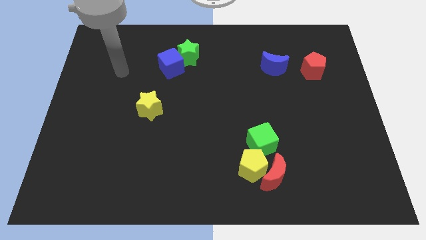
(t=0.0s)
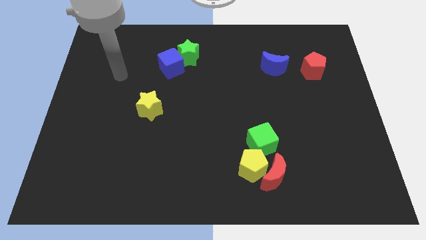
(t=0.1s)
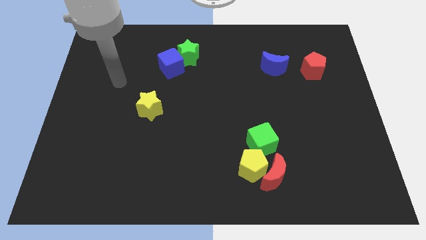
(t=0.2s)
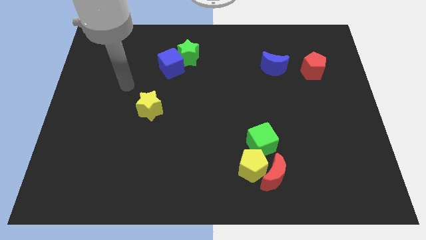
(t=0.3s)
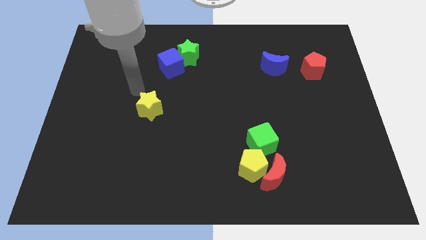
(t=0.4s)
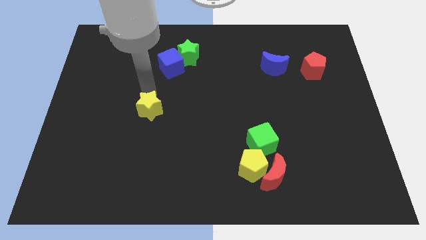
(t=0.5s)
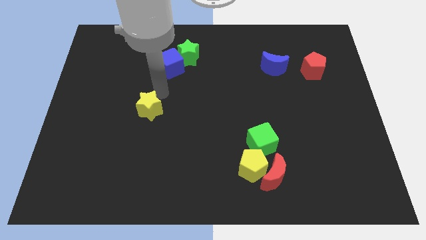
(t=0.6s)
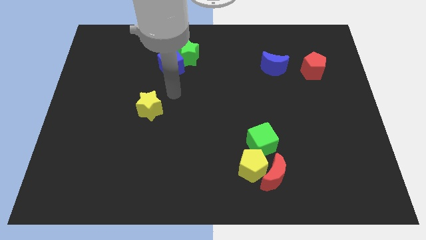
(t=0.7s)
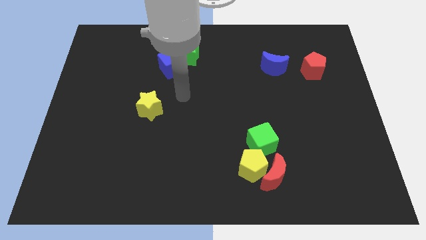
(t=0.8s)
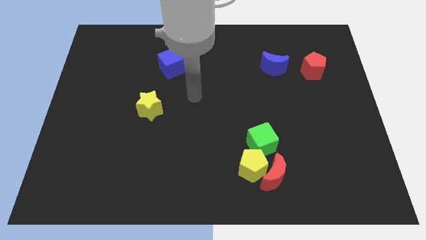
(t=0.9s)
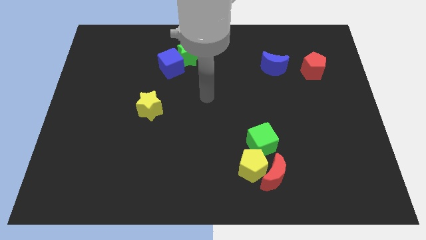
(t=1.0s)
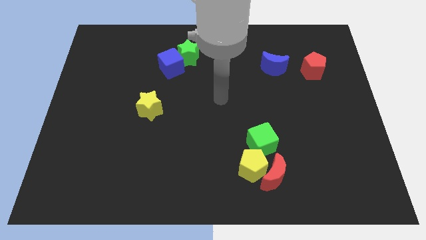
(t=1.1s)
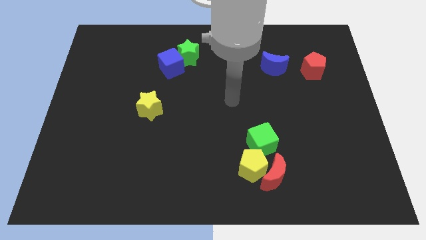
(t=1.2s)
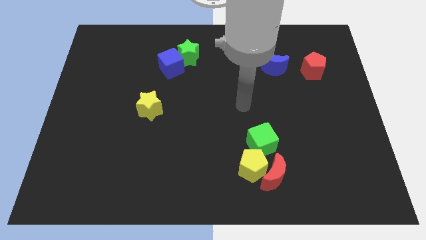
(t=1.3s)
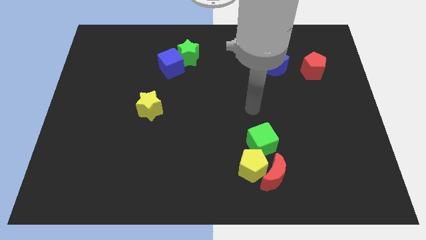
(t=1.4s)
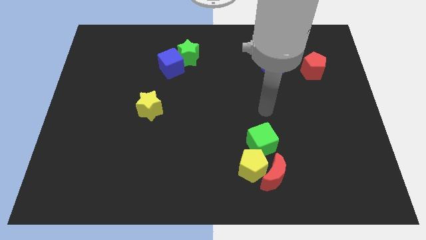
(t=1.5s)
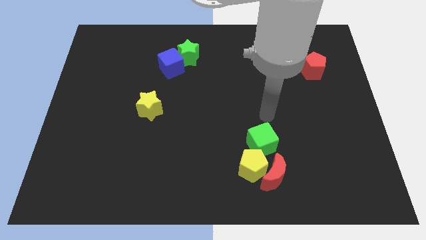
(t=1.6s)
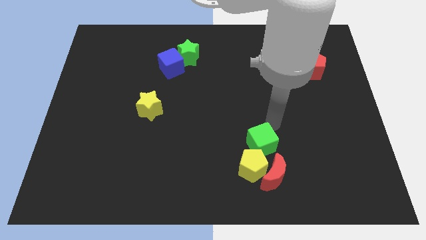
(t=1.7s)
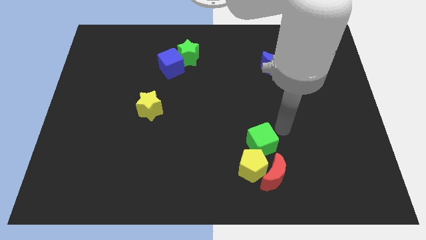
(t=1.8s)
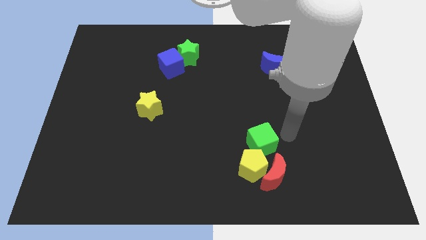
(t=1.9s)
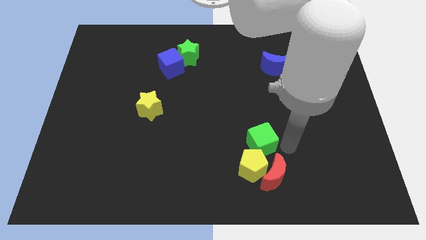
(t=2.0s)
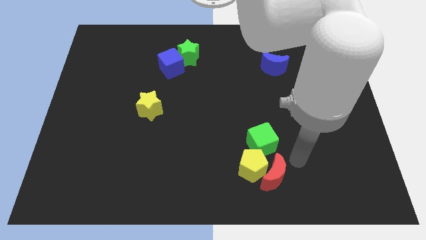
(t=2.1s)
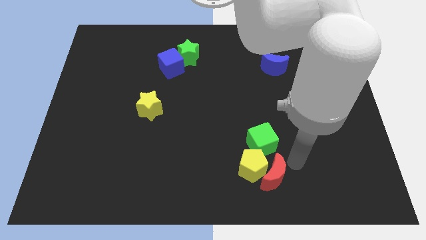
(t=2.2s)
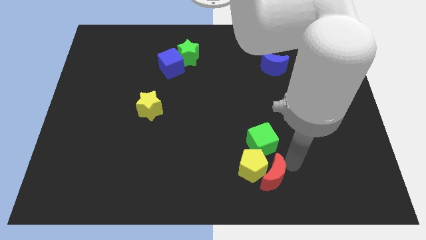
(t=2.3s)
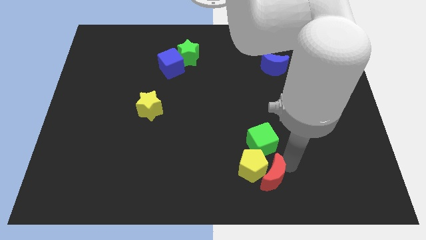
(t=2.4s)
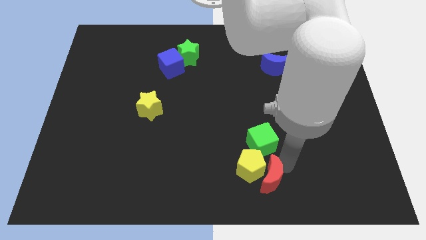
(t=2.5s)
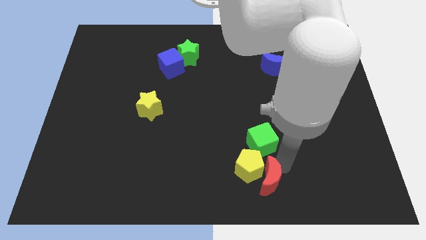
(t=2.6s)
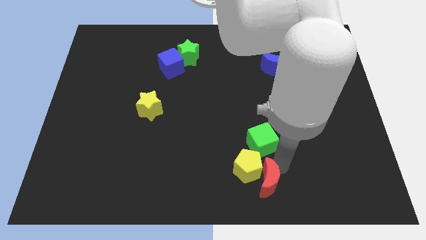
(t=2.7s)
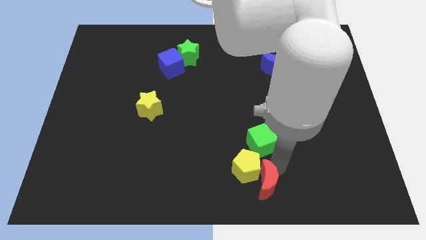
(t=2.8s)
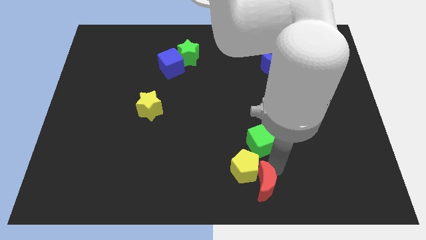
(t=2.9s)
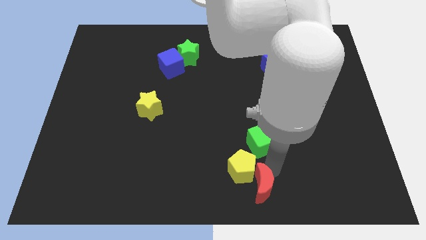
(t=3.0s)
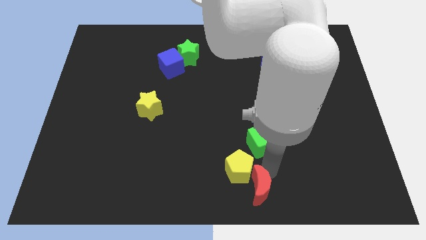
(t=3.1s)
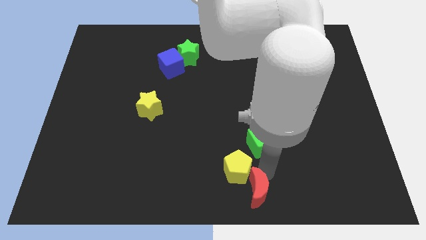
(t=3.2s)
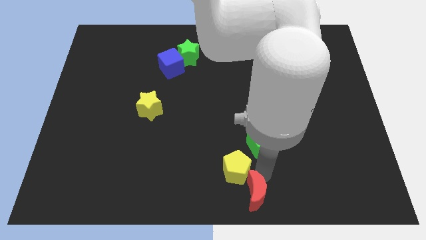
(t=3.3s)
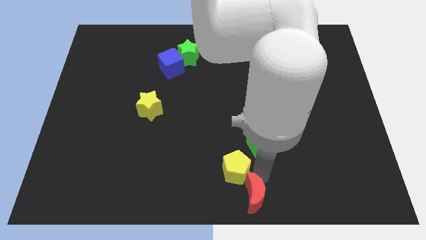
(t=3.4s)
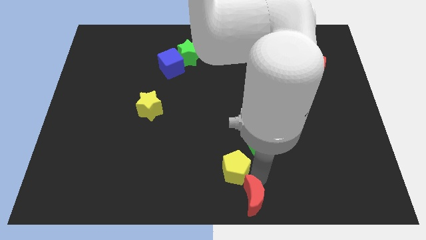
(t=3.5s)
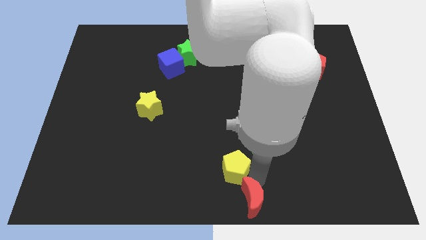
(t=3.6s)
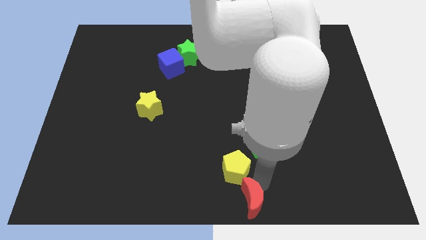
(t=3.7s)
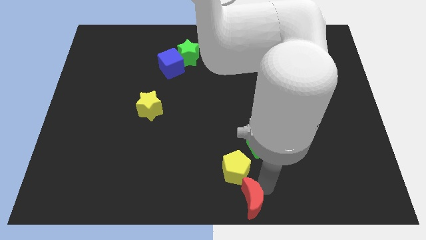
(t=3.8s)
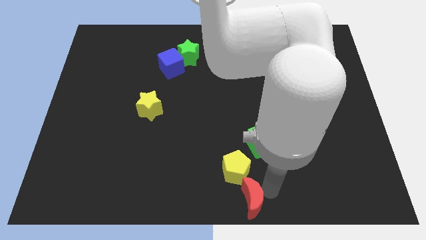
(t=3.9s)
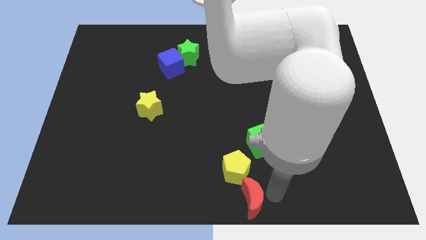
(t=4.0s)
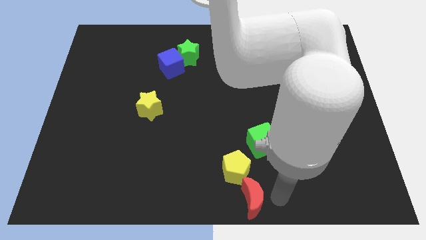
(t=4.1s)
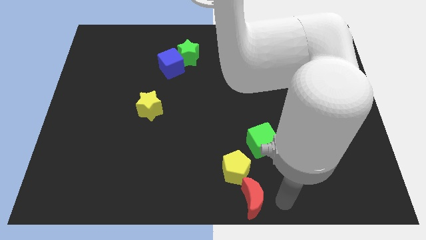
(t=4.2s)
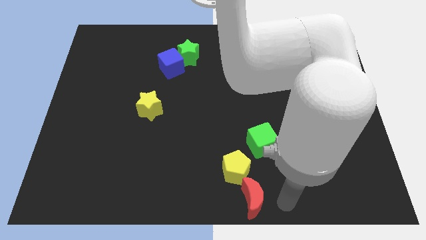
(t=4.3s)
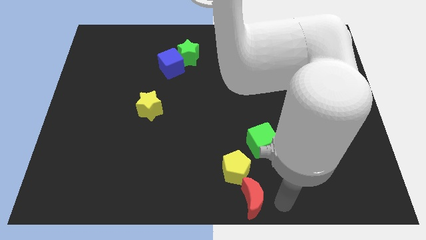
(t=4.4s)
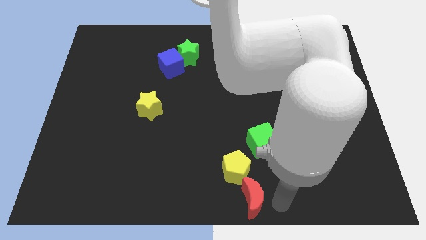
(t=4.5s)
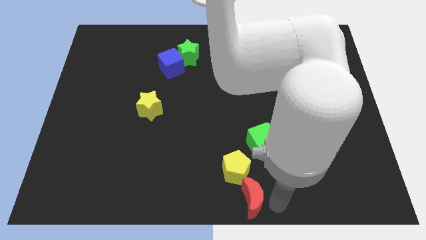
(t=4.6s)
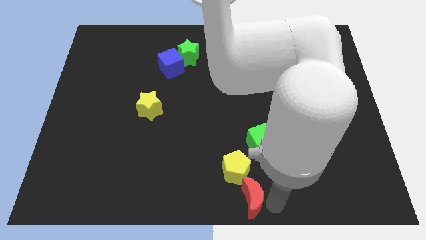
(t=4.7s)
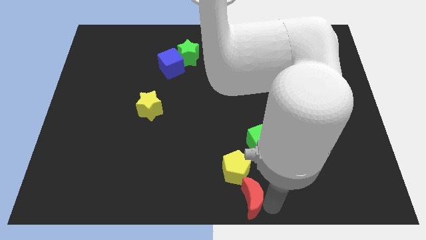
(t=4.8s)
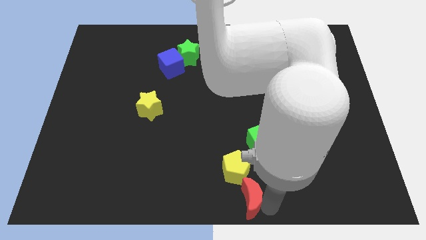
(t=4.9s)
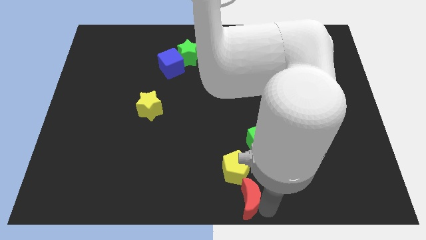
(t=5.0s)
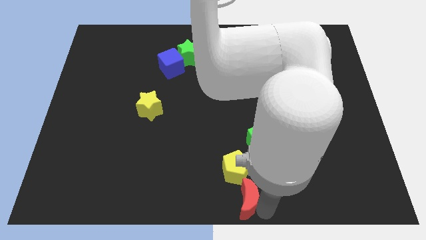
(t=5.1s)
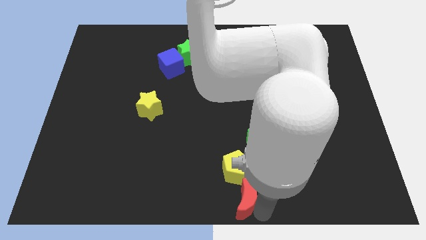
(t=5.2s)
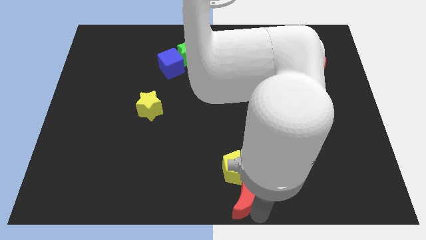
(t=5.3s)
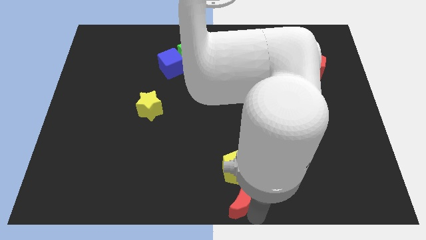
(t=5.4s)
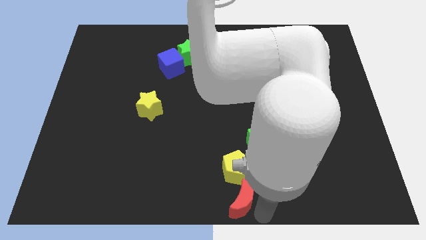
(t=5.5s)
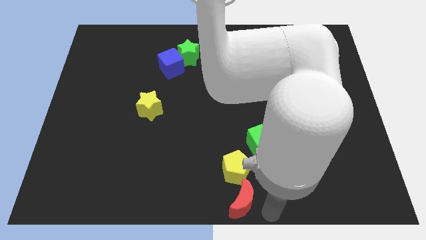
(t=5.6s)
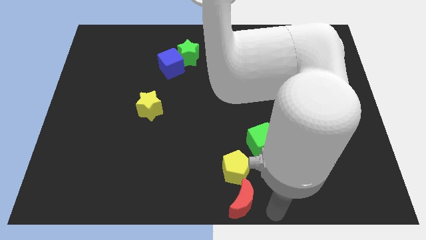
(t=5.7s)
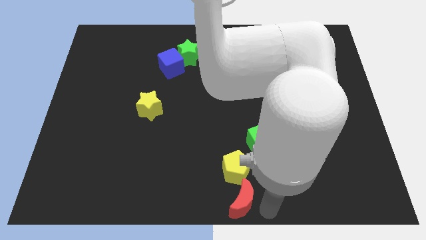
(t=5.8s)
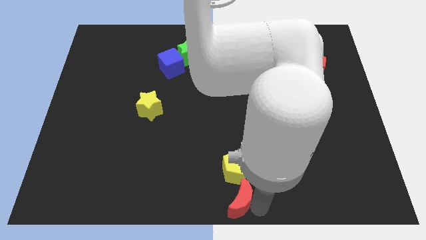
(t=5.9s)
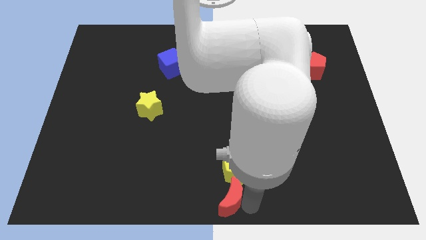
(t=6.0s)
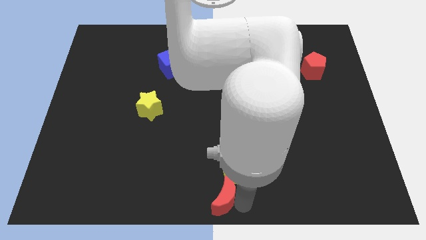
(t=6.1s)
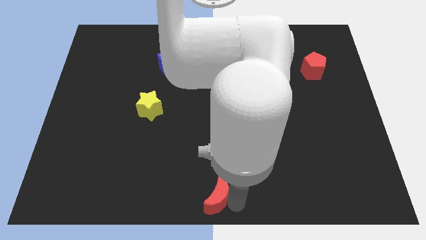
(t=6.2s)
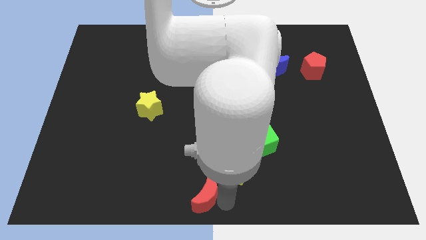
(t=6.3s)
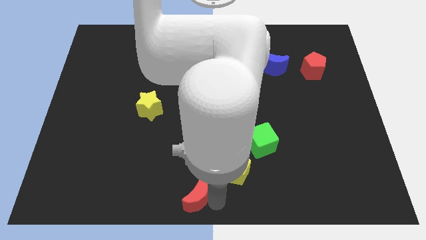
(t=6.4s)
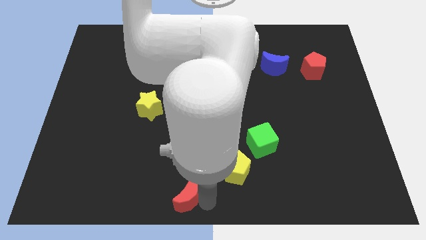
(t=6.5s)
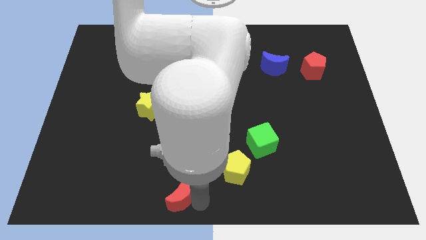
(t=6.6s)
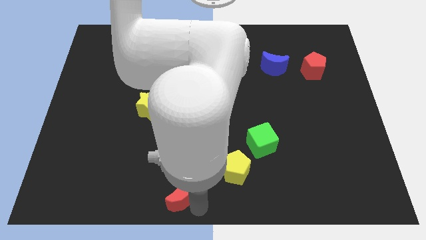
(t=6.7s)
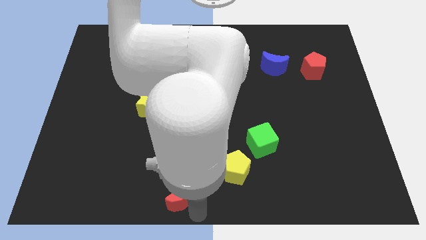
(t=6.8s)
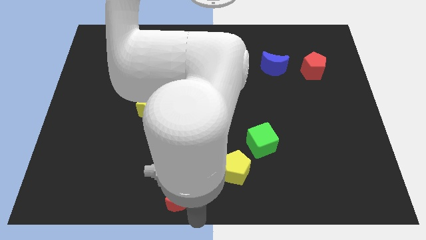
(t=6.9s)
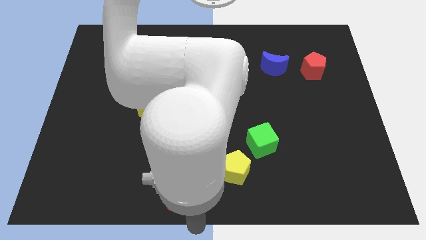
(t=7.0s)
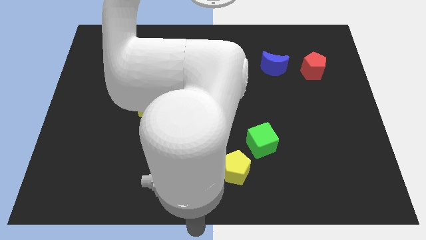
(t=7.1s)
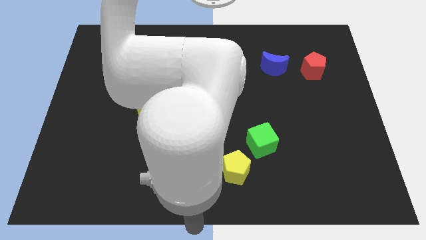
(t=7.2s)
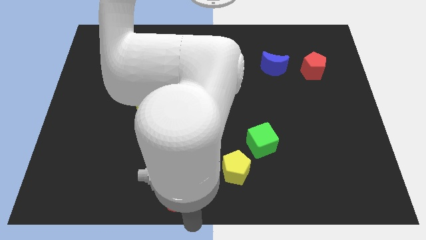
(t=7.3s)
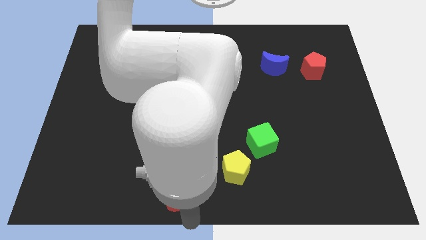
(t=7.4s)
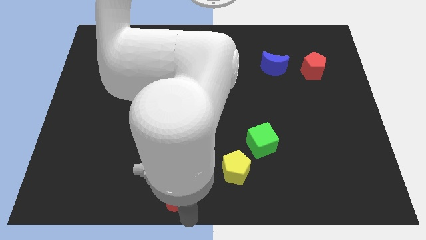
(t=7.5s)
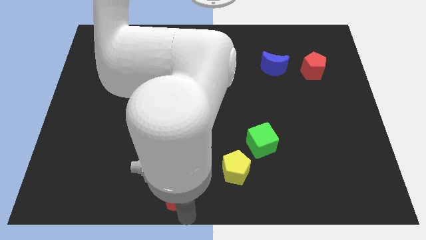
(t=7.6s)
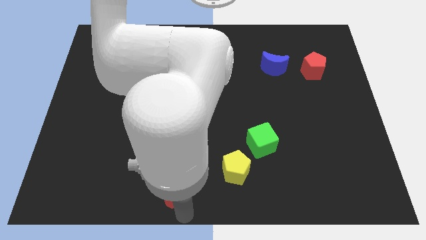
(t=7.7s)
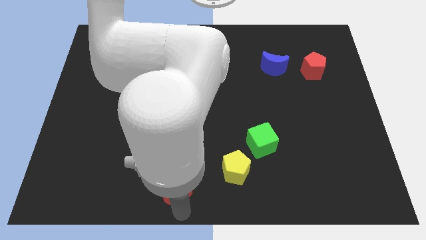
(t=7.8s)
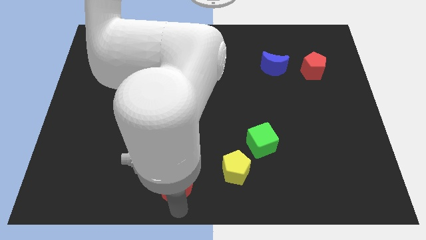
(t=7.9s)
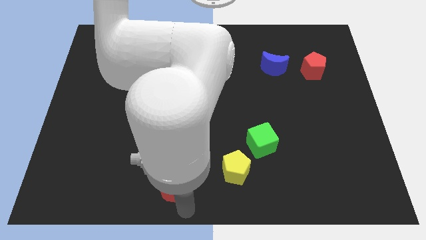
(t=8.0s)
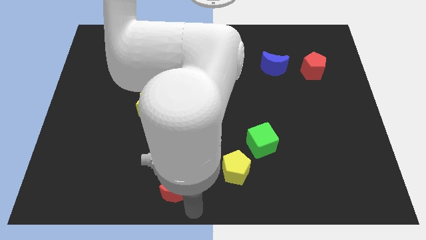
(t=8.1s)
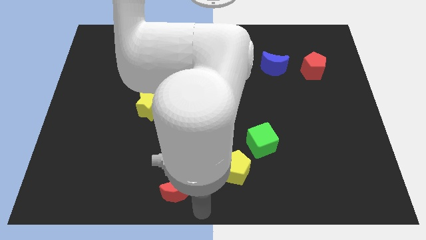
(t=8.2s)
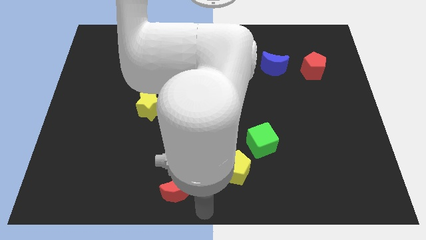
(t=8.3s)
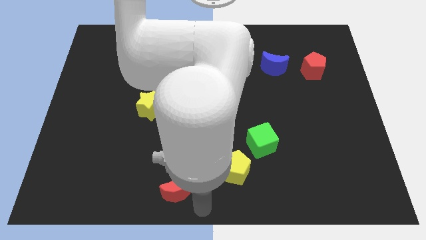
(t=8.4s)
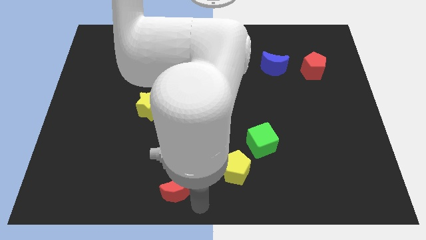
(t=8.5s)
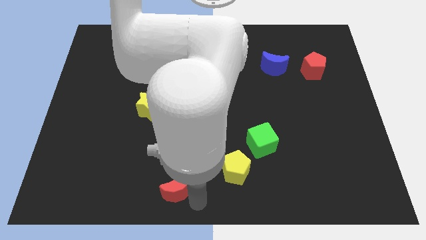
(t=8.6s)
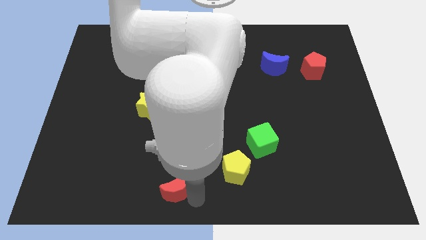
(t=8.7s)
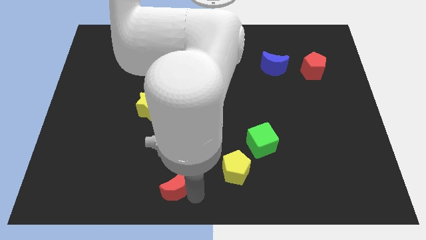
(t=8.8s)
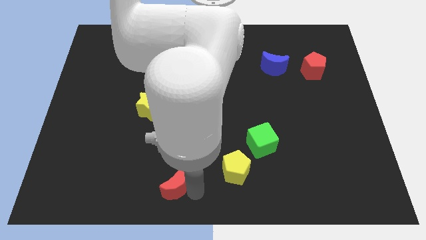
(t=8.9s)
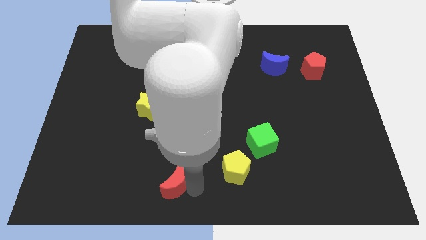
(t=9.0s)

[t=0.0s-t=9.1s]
push the red moon to the left
